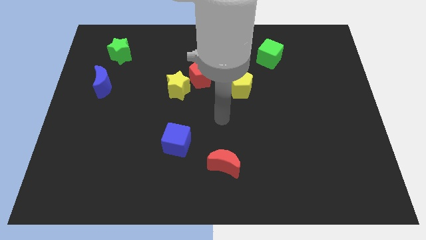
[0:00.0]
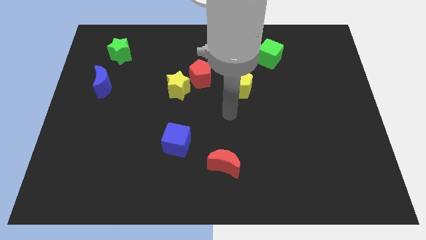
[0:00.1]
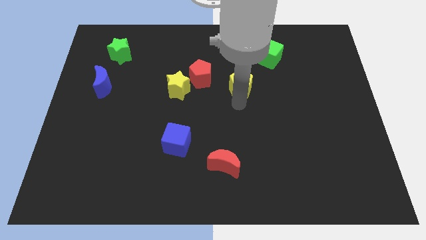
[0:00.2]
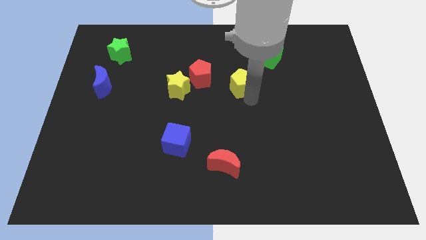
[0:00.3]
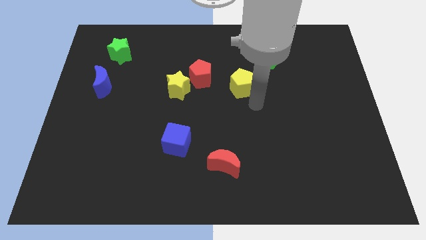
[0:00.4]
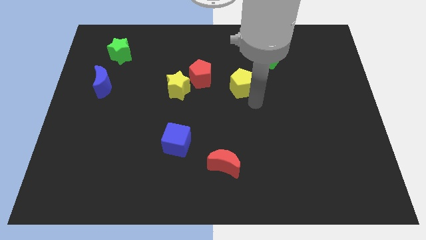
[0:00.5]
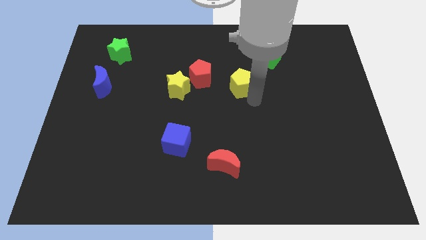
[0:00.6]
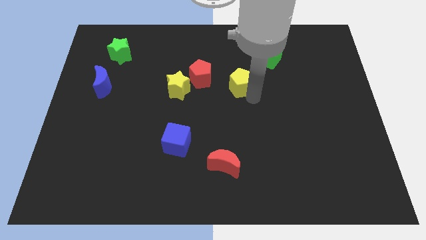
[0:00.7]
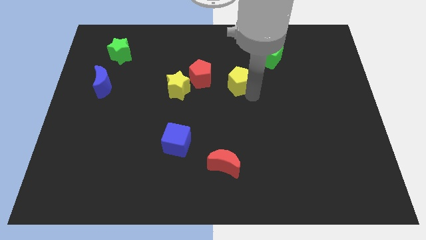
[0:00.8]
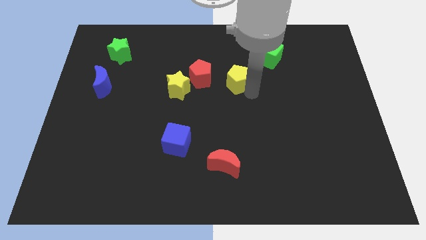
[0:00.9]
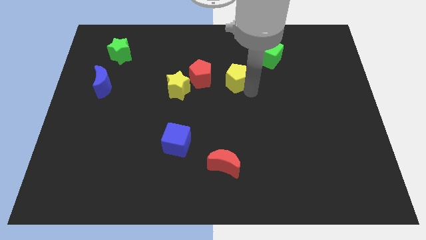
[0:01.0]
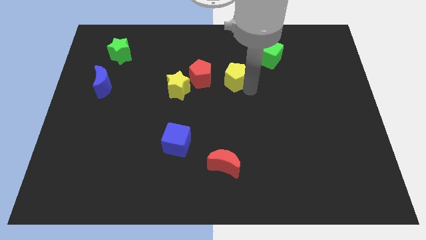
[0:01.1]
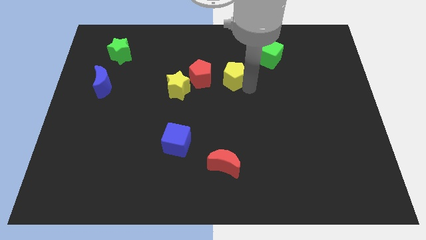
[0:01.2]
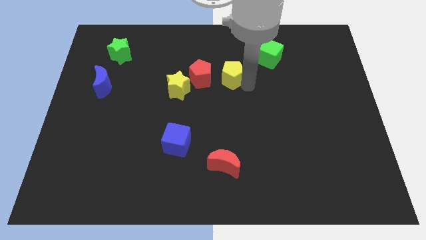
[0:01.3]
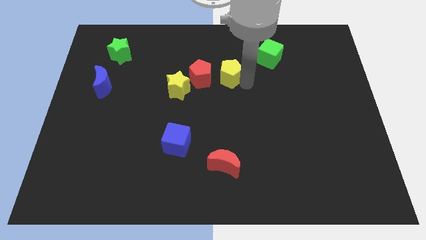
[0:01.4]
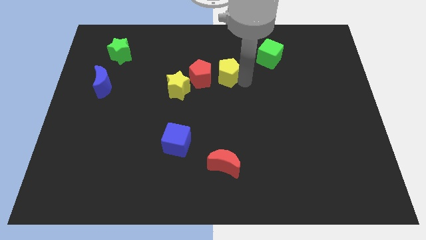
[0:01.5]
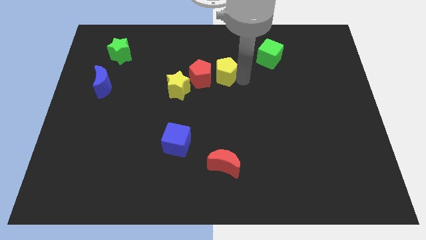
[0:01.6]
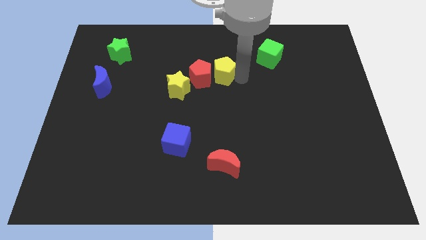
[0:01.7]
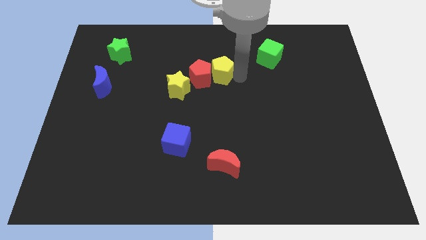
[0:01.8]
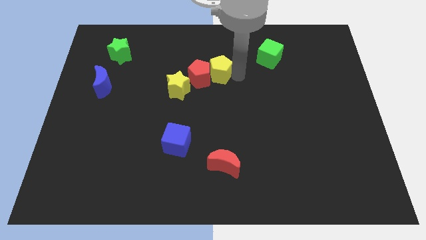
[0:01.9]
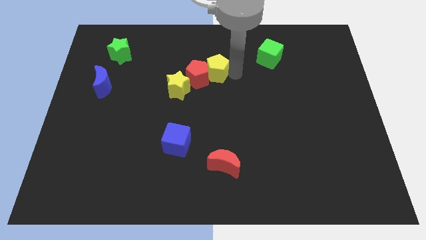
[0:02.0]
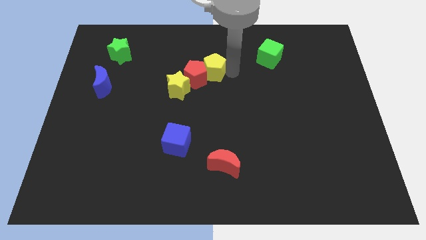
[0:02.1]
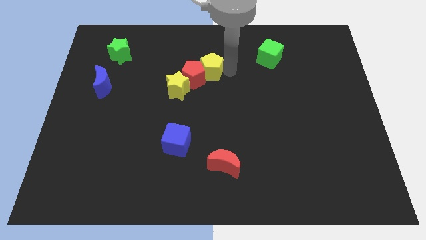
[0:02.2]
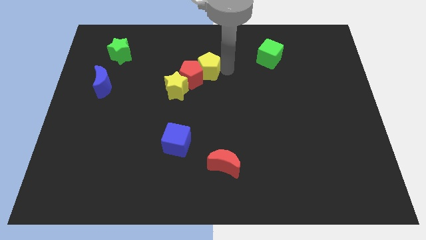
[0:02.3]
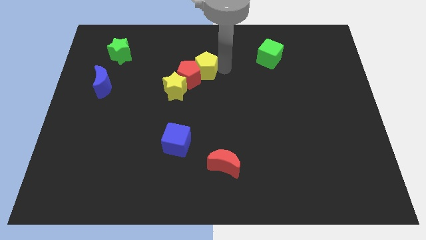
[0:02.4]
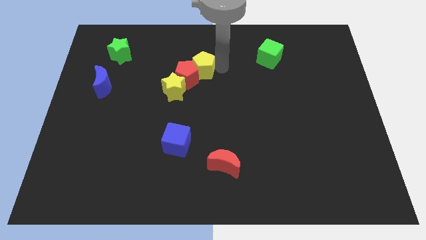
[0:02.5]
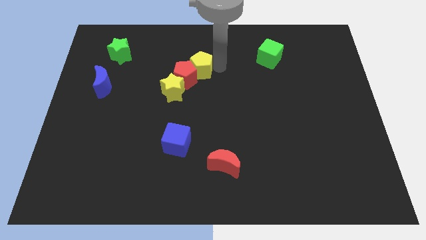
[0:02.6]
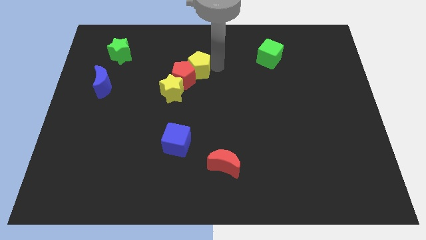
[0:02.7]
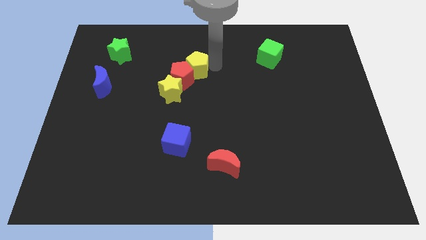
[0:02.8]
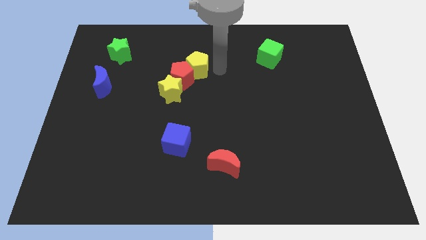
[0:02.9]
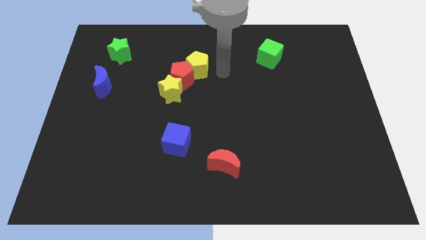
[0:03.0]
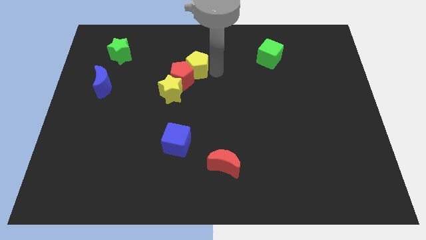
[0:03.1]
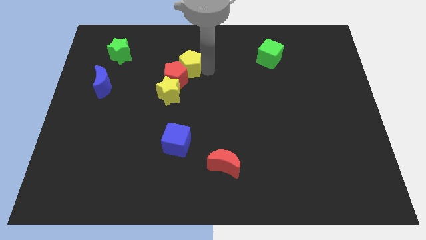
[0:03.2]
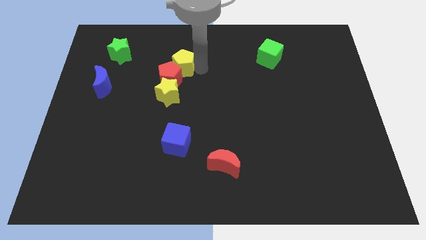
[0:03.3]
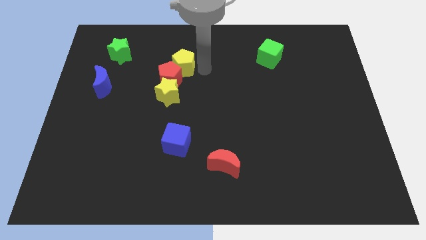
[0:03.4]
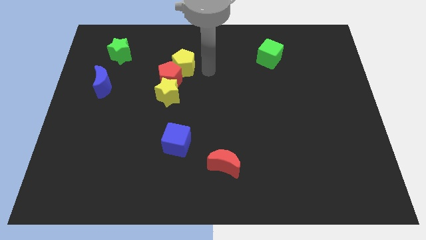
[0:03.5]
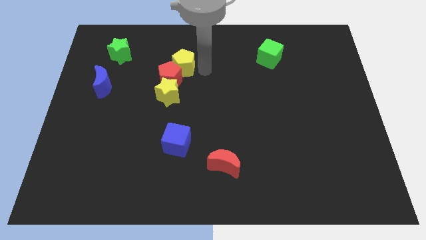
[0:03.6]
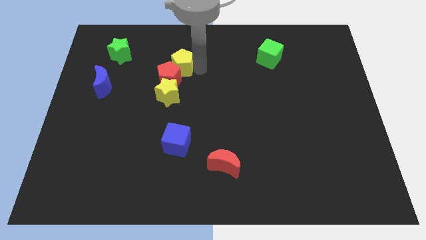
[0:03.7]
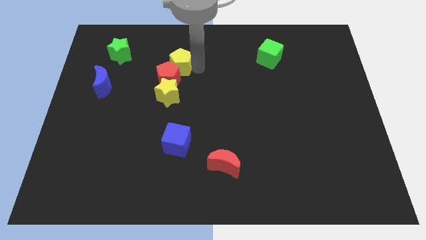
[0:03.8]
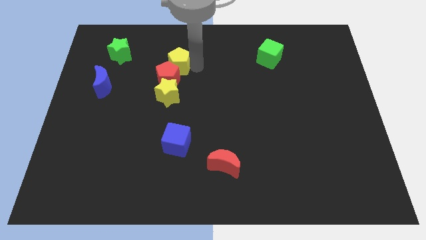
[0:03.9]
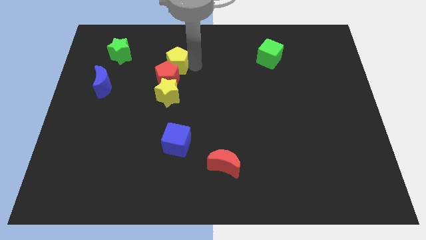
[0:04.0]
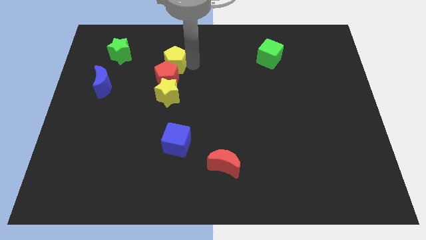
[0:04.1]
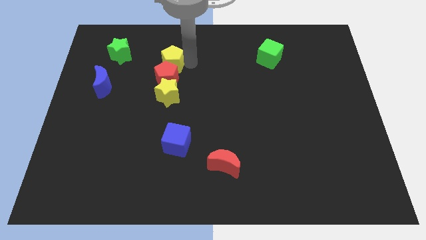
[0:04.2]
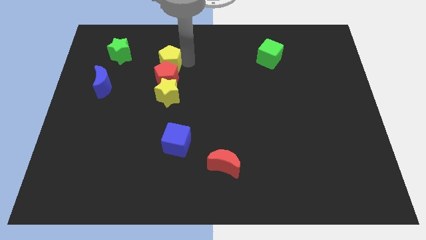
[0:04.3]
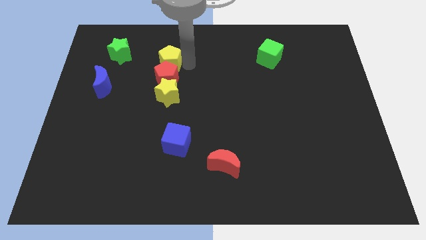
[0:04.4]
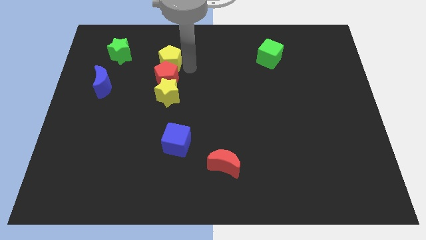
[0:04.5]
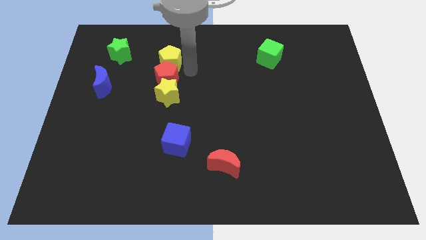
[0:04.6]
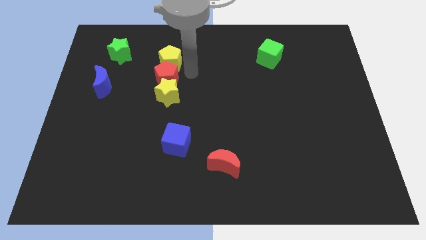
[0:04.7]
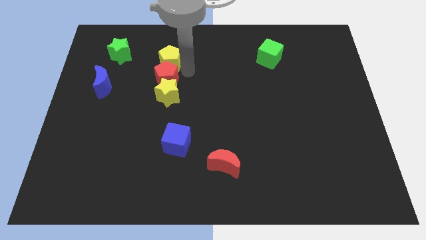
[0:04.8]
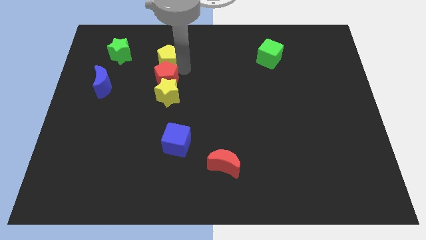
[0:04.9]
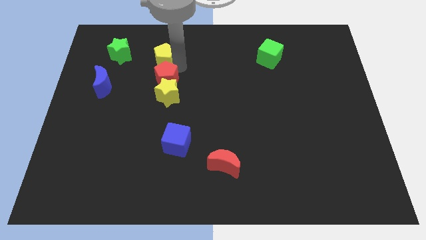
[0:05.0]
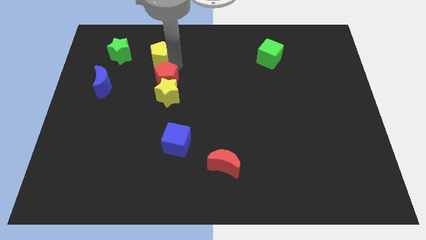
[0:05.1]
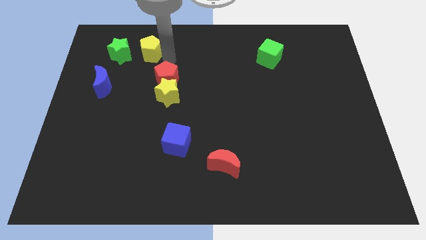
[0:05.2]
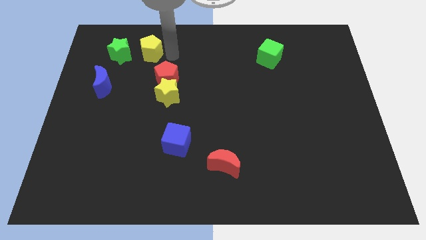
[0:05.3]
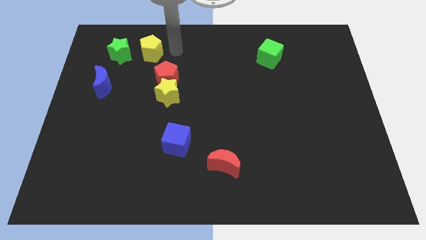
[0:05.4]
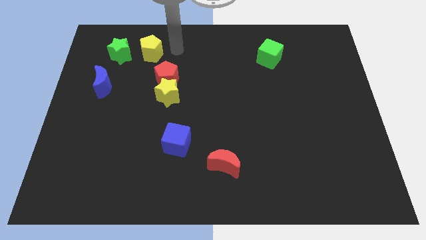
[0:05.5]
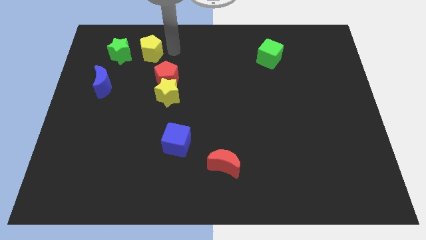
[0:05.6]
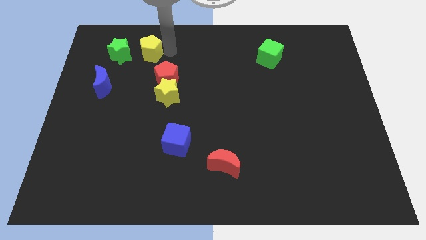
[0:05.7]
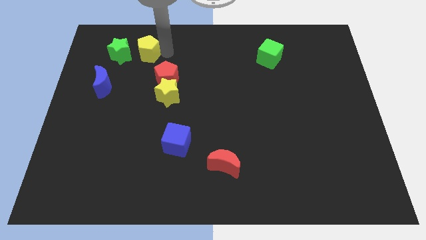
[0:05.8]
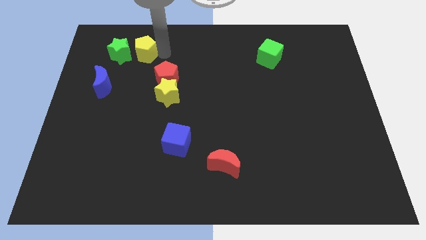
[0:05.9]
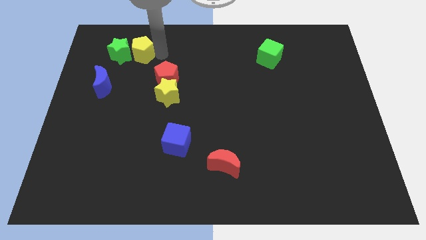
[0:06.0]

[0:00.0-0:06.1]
push the yellow pentagon towards the green star

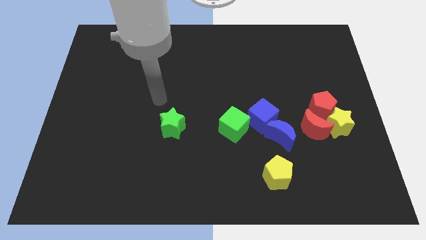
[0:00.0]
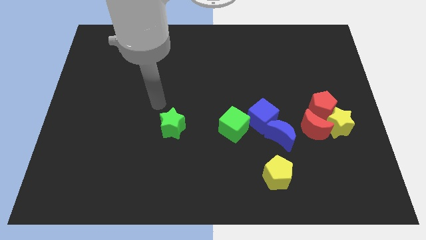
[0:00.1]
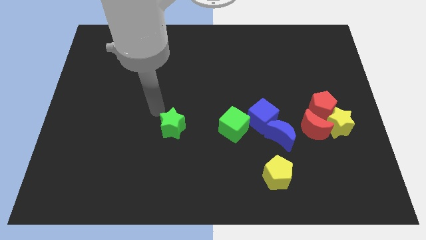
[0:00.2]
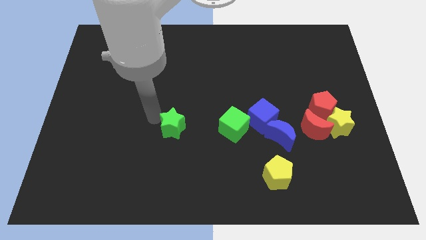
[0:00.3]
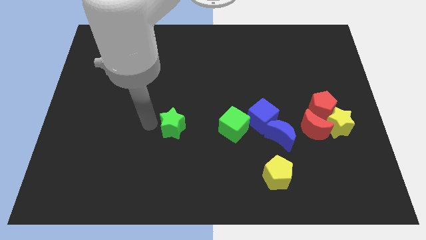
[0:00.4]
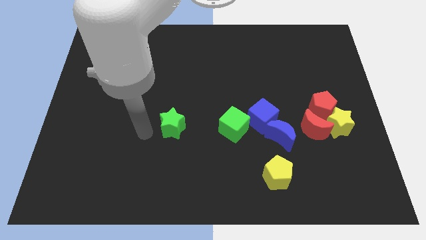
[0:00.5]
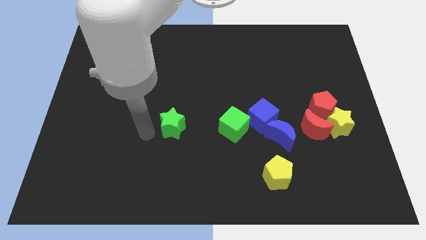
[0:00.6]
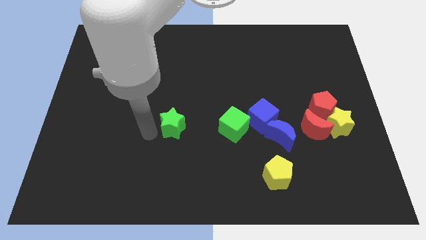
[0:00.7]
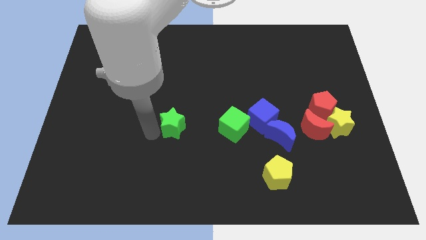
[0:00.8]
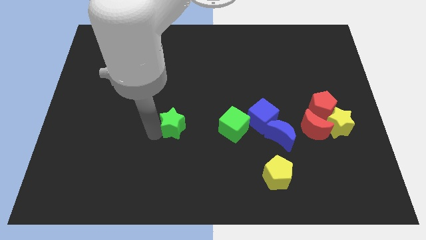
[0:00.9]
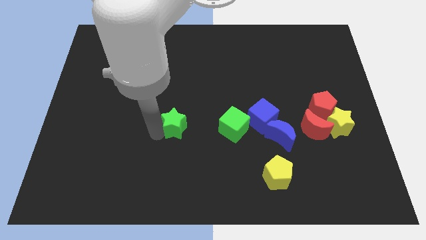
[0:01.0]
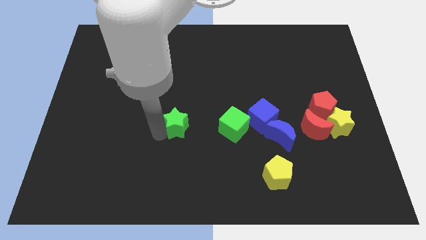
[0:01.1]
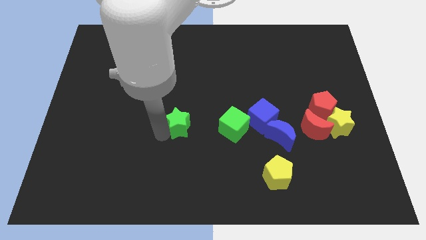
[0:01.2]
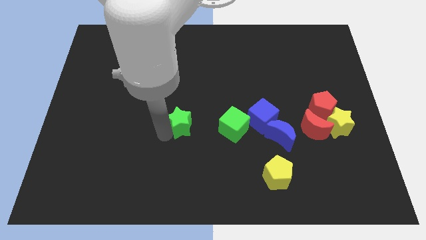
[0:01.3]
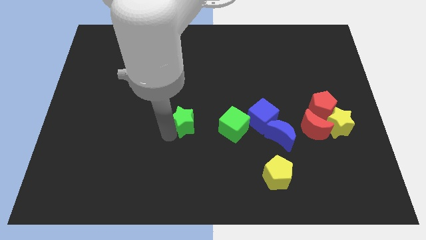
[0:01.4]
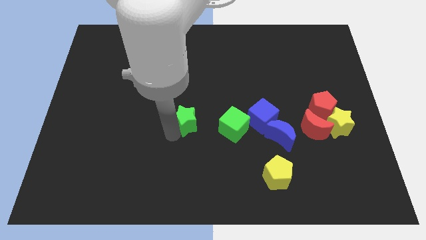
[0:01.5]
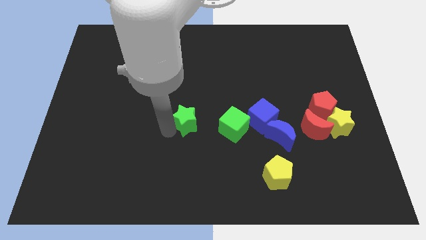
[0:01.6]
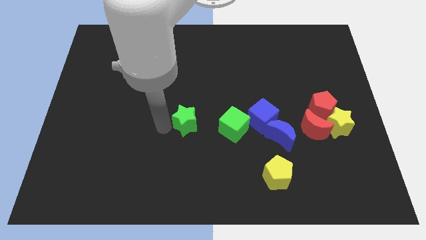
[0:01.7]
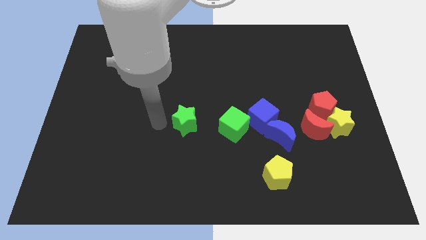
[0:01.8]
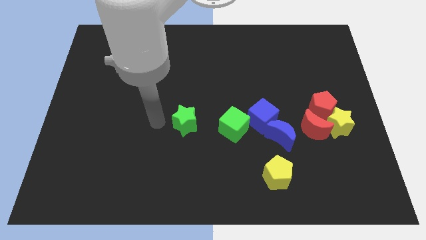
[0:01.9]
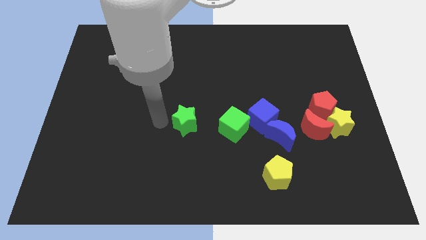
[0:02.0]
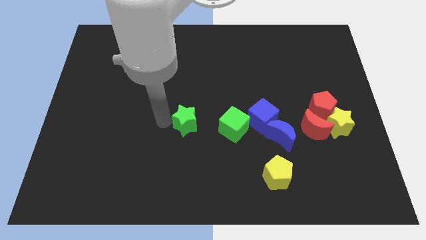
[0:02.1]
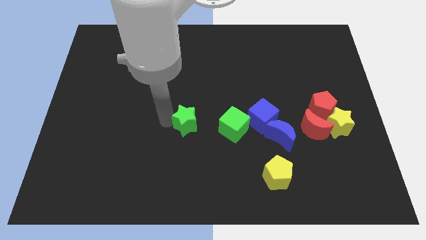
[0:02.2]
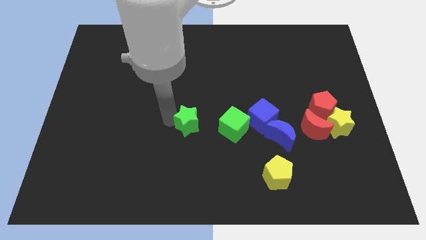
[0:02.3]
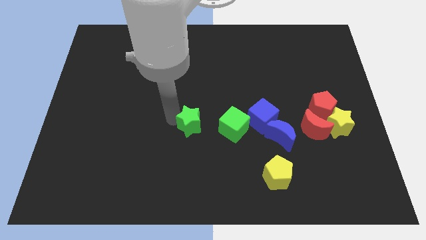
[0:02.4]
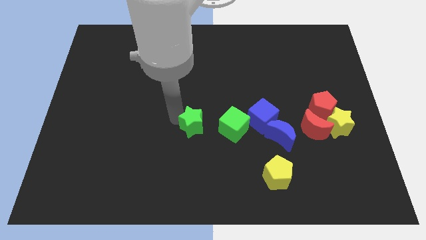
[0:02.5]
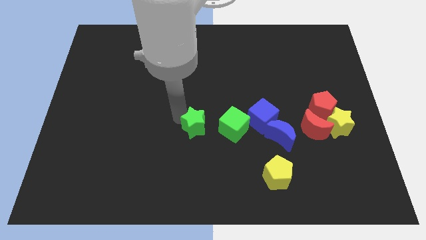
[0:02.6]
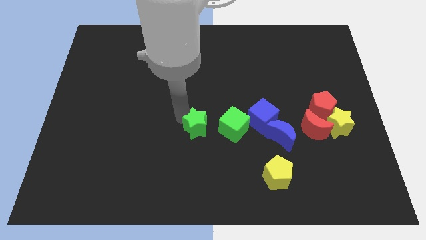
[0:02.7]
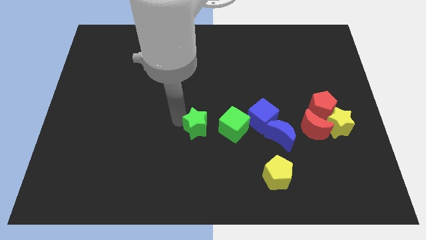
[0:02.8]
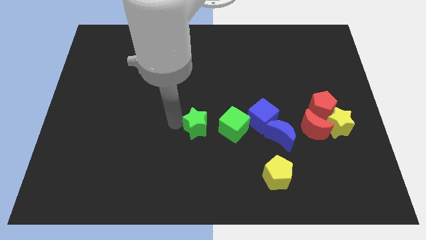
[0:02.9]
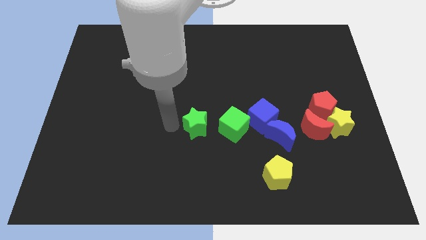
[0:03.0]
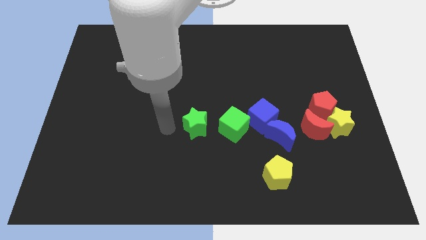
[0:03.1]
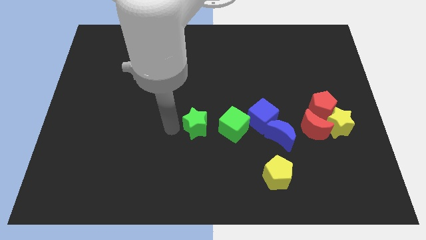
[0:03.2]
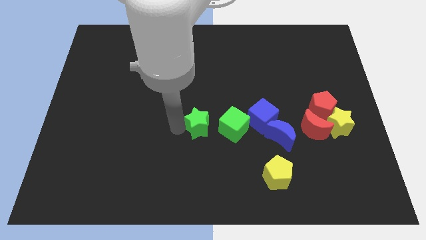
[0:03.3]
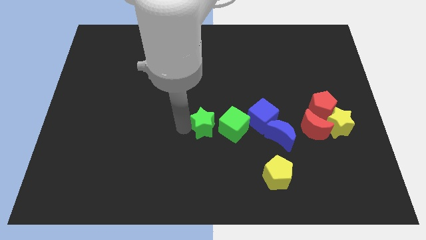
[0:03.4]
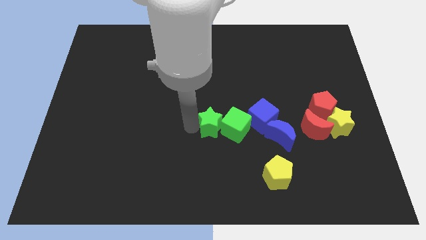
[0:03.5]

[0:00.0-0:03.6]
slide the green star to the green cube
